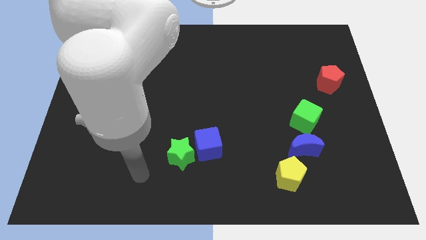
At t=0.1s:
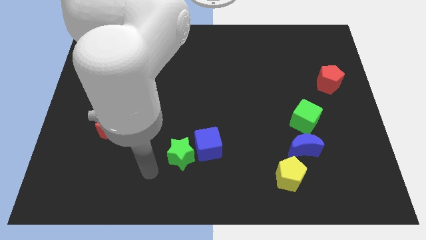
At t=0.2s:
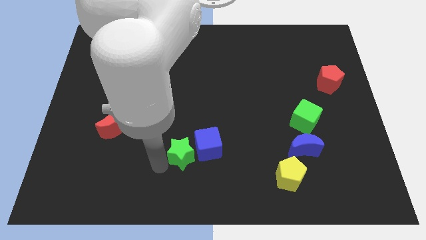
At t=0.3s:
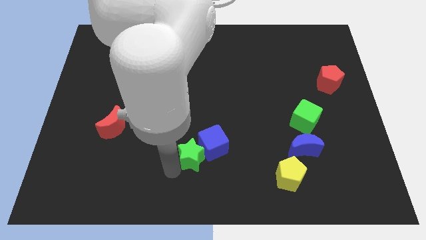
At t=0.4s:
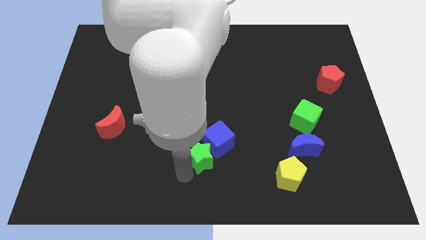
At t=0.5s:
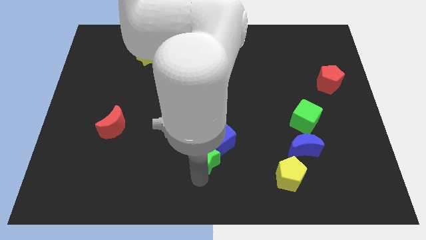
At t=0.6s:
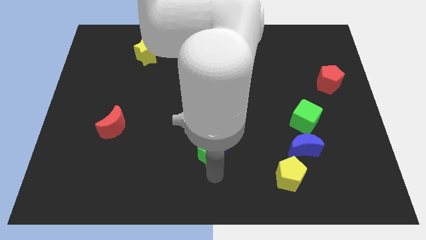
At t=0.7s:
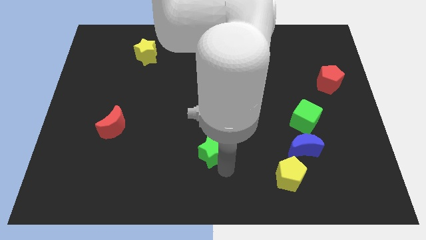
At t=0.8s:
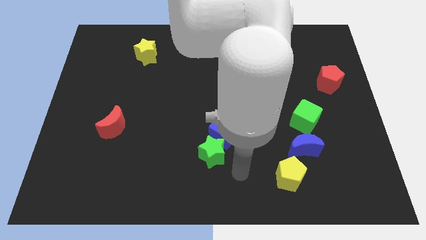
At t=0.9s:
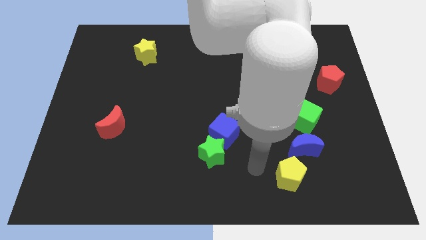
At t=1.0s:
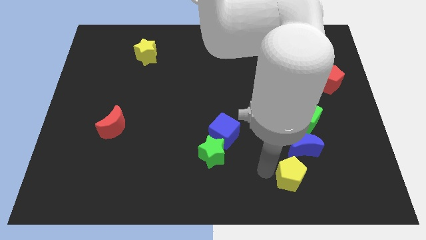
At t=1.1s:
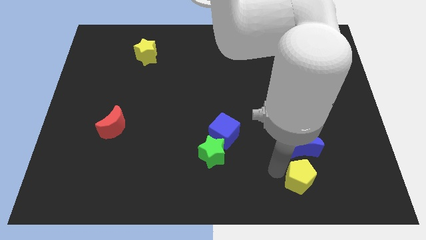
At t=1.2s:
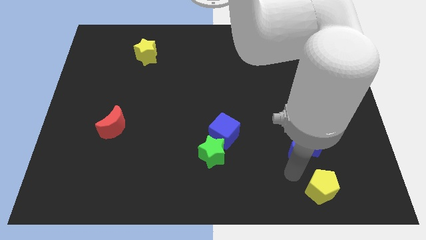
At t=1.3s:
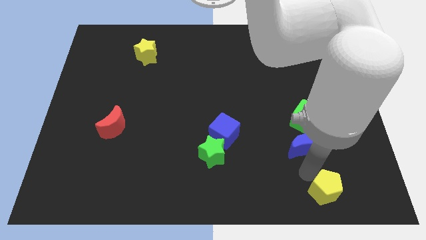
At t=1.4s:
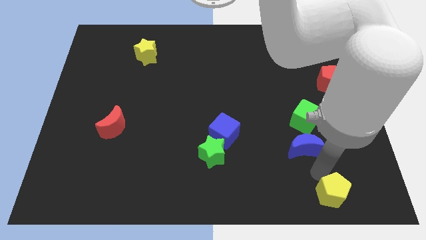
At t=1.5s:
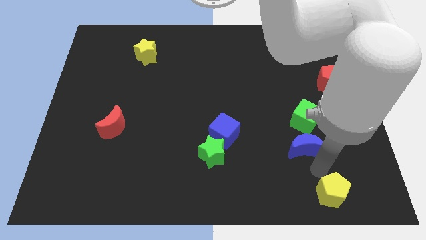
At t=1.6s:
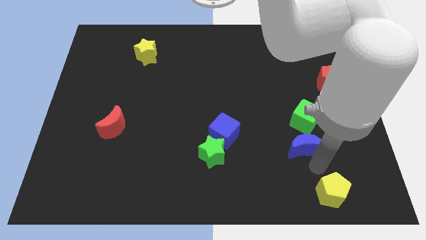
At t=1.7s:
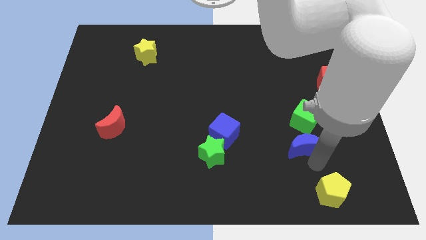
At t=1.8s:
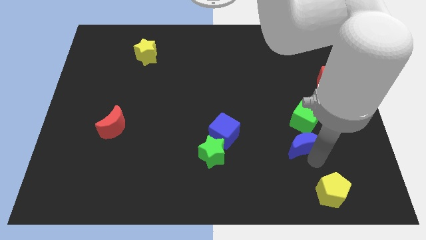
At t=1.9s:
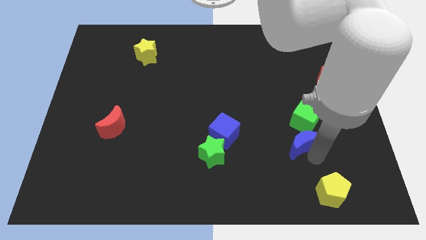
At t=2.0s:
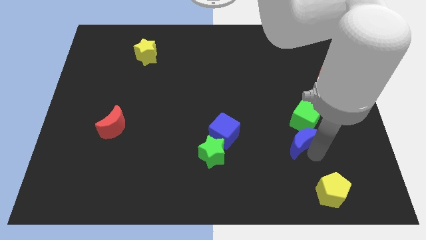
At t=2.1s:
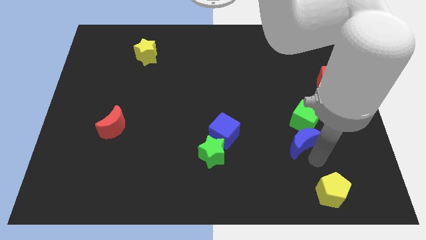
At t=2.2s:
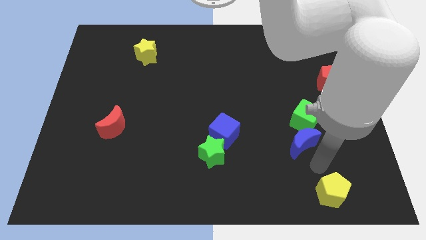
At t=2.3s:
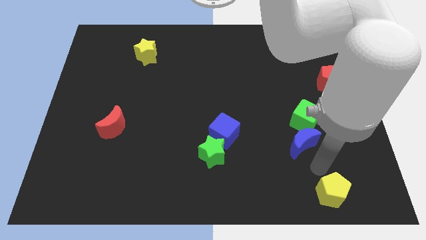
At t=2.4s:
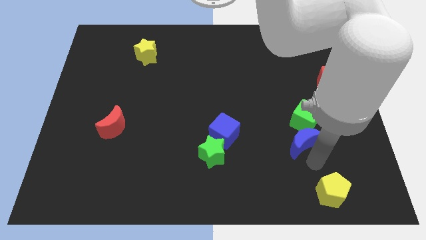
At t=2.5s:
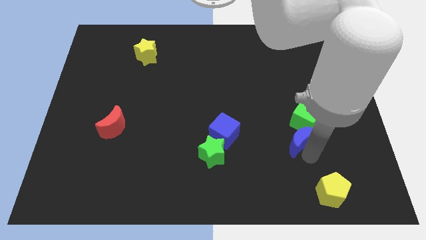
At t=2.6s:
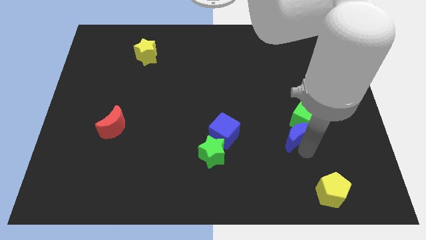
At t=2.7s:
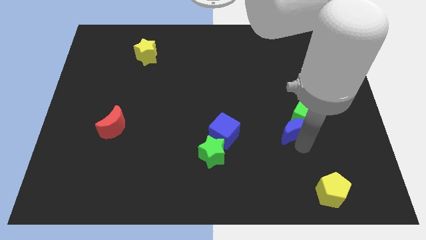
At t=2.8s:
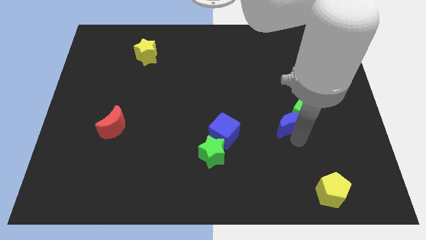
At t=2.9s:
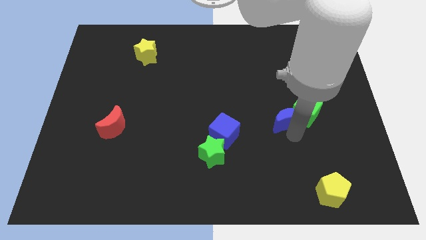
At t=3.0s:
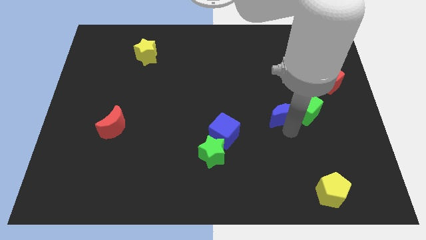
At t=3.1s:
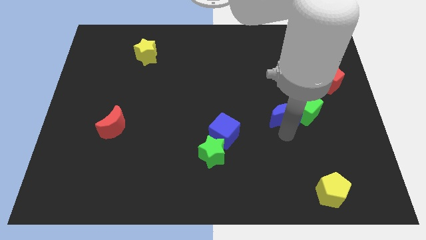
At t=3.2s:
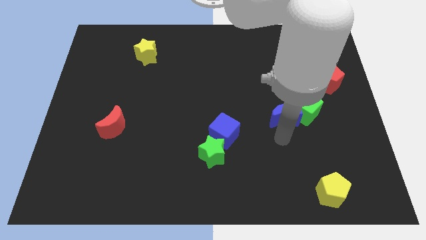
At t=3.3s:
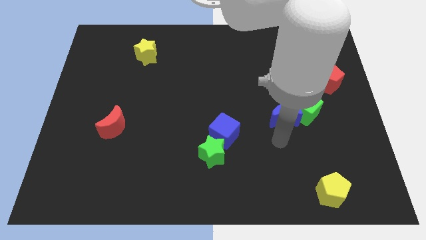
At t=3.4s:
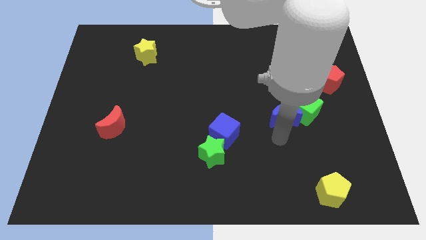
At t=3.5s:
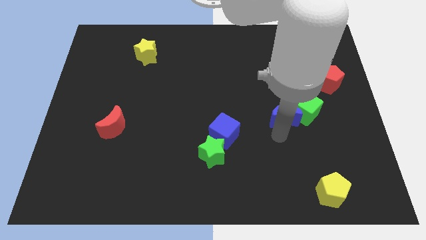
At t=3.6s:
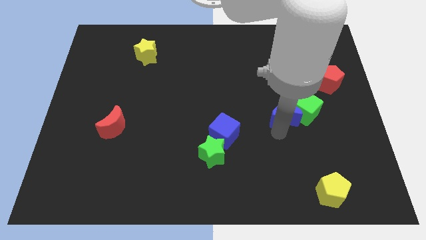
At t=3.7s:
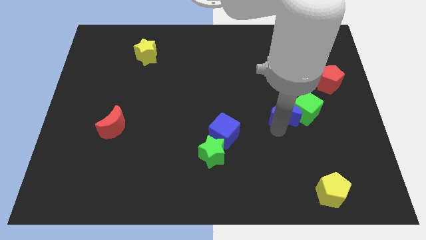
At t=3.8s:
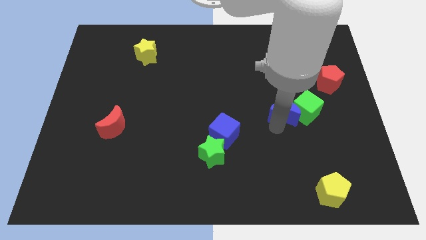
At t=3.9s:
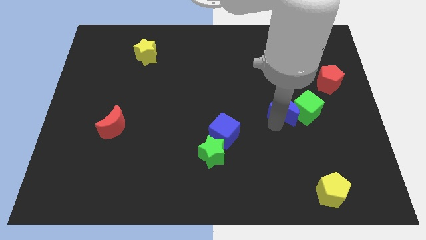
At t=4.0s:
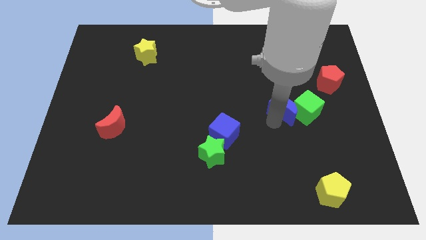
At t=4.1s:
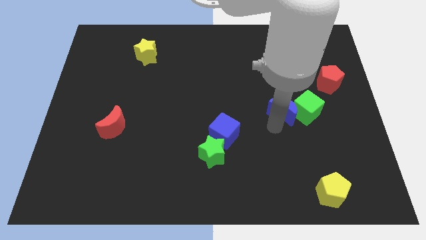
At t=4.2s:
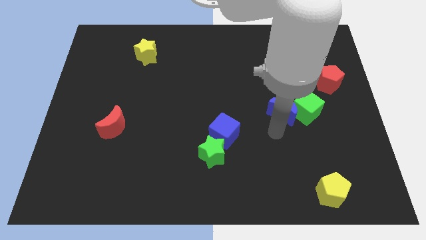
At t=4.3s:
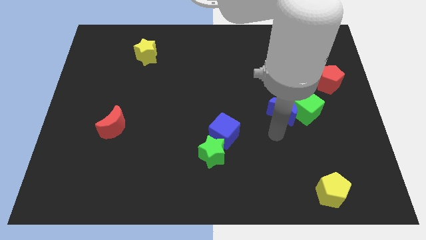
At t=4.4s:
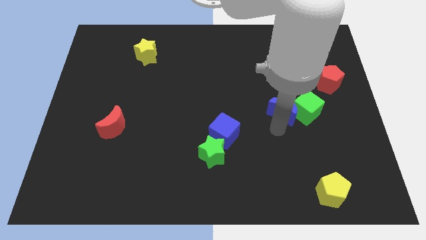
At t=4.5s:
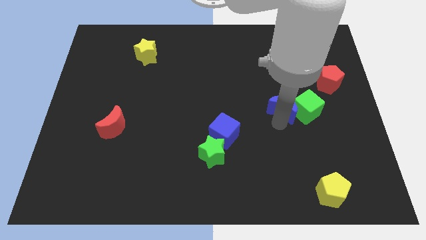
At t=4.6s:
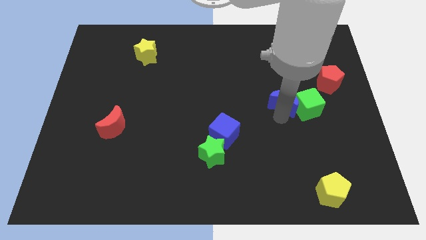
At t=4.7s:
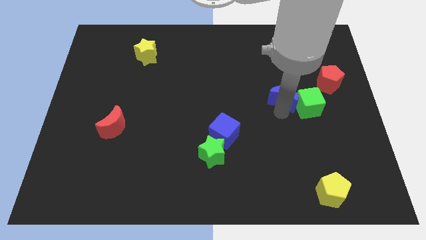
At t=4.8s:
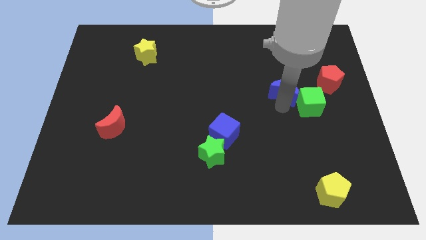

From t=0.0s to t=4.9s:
put the blue moon left of the red pentagon

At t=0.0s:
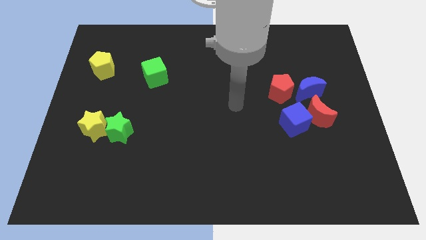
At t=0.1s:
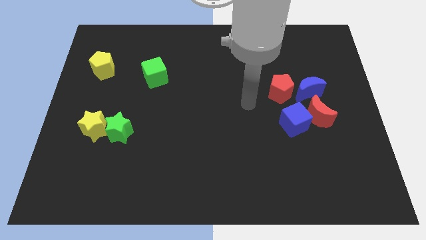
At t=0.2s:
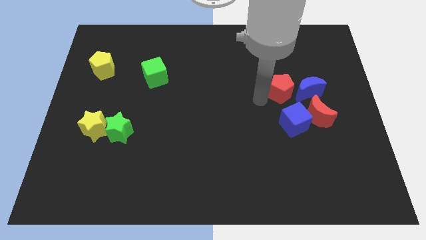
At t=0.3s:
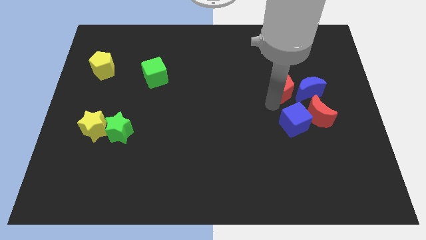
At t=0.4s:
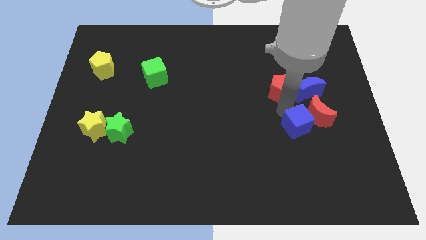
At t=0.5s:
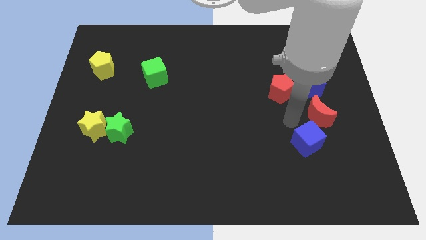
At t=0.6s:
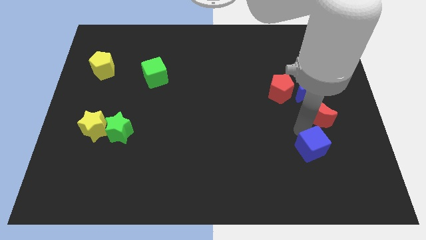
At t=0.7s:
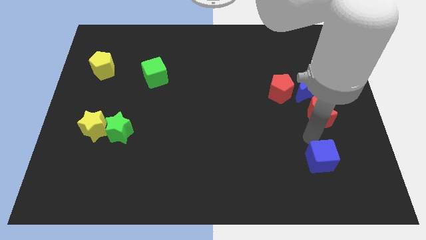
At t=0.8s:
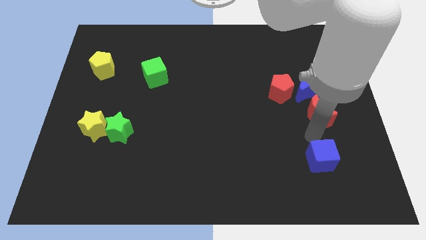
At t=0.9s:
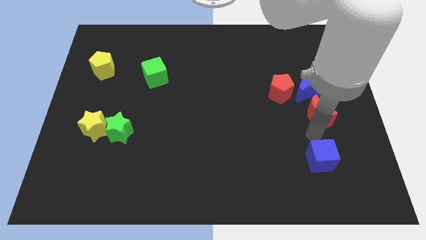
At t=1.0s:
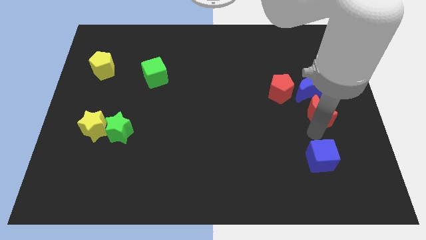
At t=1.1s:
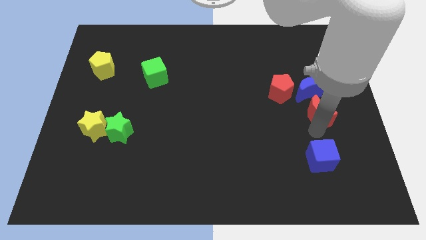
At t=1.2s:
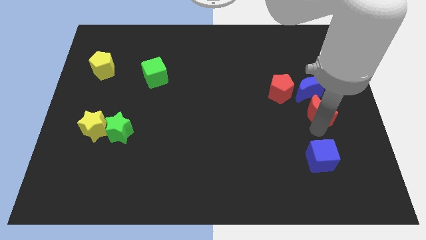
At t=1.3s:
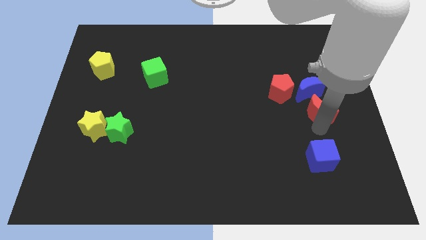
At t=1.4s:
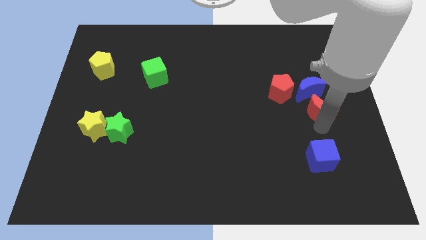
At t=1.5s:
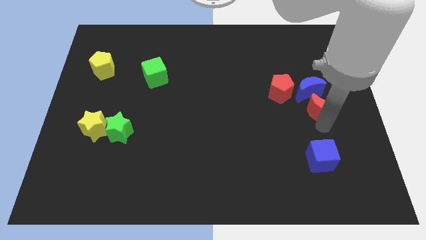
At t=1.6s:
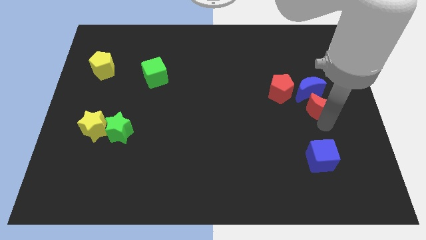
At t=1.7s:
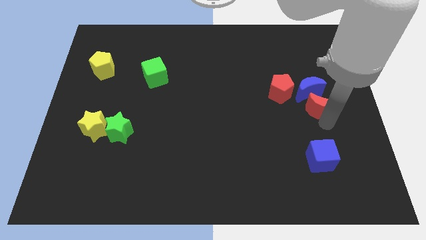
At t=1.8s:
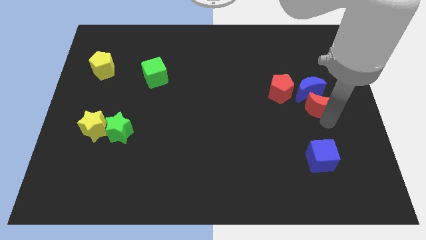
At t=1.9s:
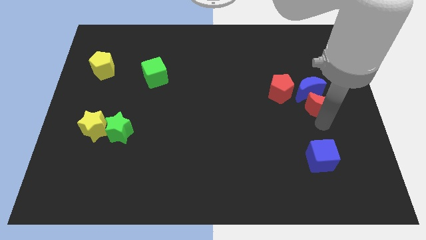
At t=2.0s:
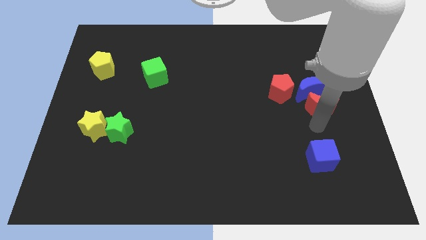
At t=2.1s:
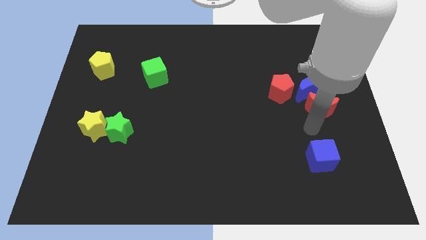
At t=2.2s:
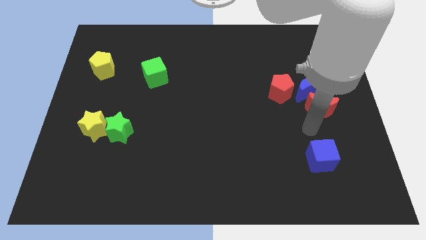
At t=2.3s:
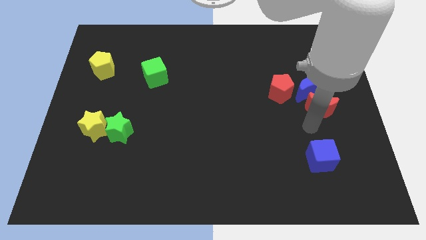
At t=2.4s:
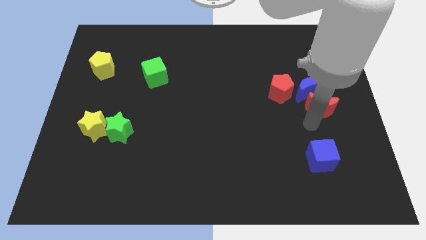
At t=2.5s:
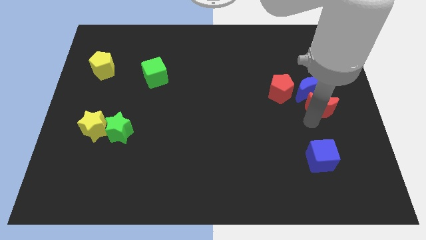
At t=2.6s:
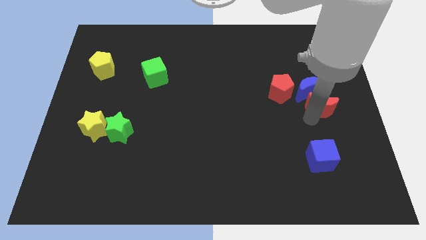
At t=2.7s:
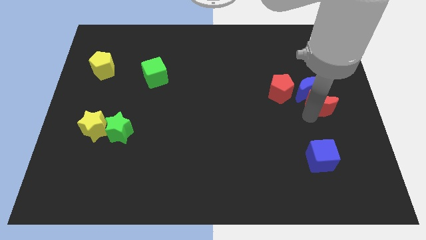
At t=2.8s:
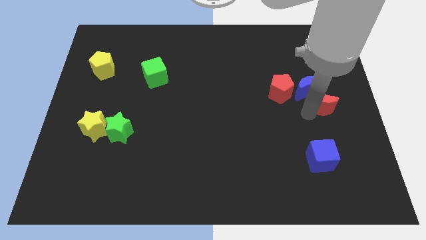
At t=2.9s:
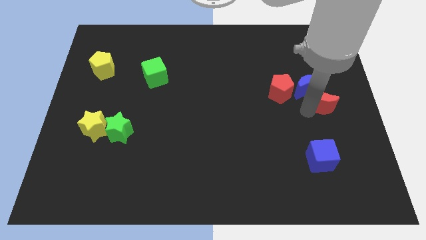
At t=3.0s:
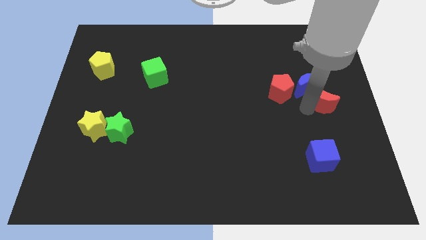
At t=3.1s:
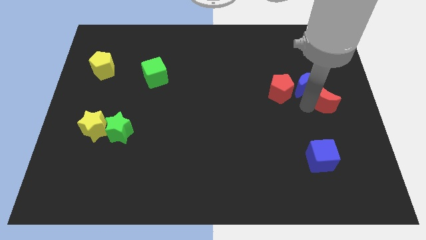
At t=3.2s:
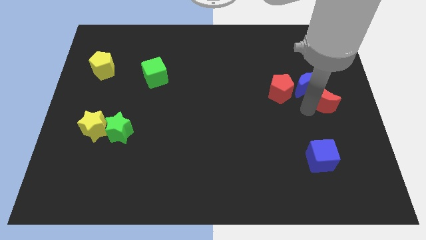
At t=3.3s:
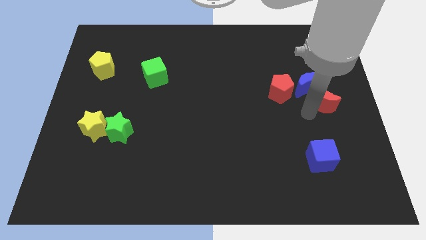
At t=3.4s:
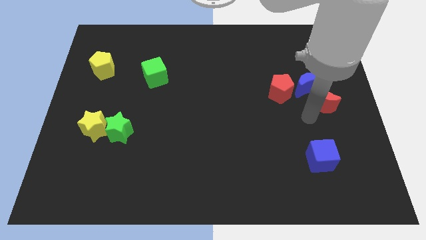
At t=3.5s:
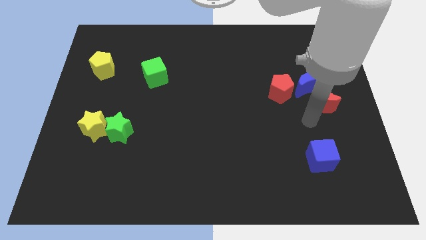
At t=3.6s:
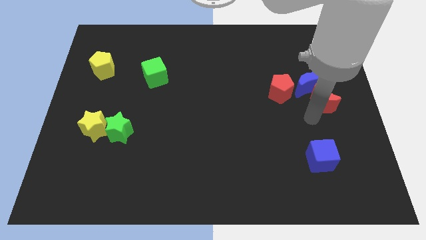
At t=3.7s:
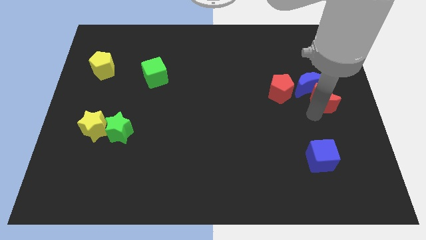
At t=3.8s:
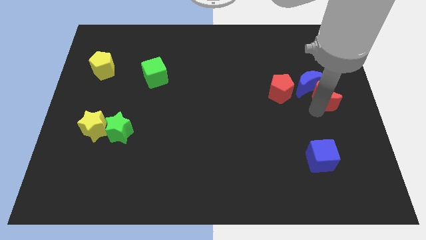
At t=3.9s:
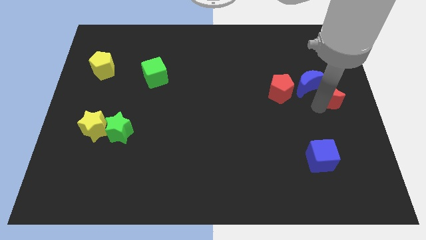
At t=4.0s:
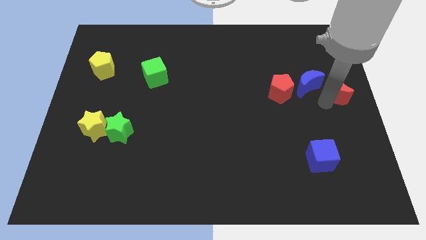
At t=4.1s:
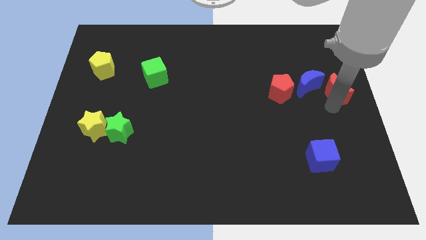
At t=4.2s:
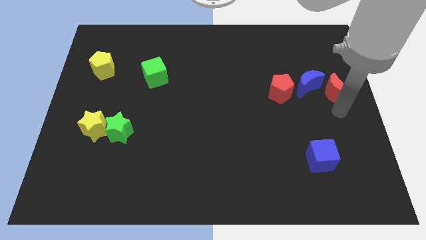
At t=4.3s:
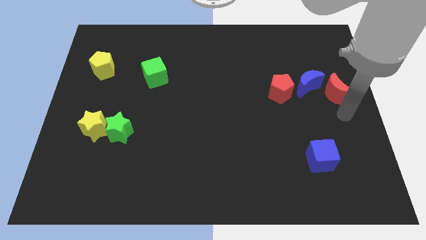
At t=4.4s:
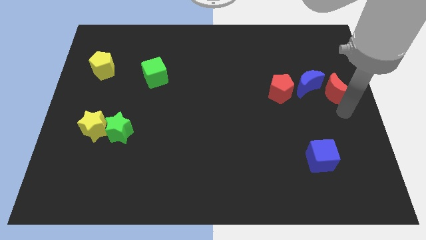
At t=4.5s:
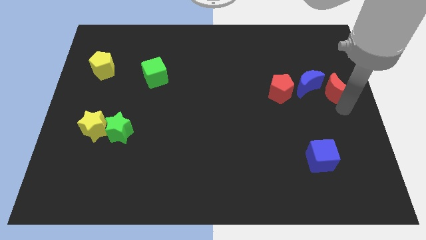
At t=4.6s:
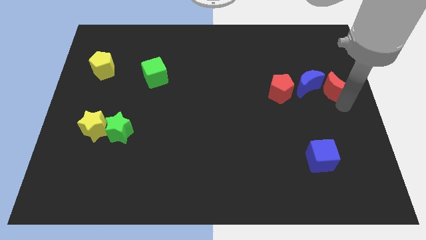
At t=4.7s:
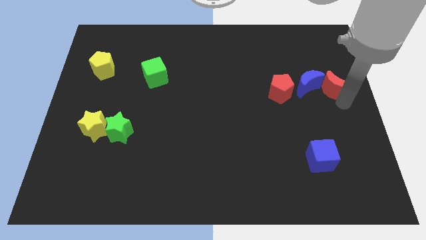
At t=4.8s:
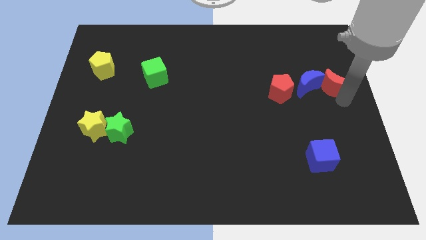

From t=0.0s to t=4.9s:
move the red moon diagonally up and to the right of the blue moon
